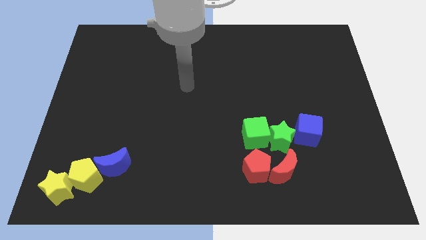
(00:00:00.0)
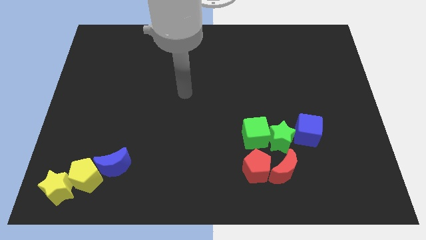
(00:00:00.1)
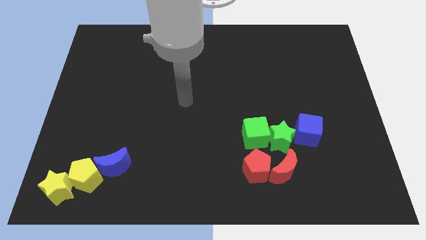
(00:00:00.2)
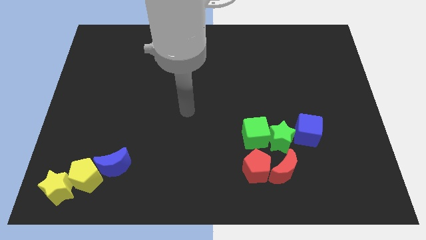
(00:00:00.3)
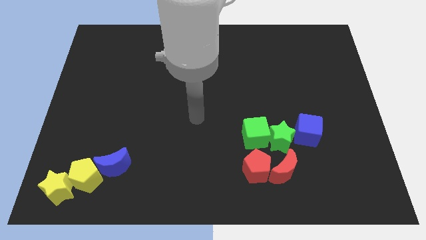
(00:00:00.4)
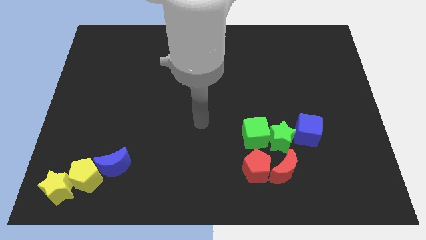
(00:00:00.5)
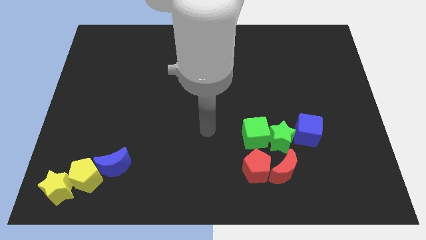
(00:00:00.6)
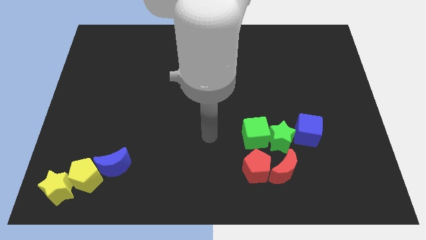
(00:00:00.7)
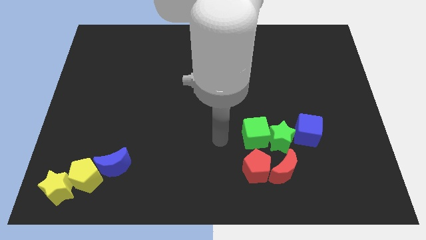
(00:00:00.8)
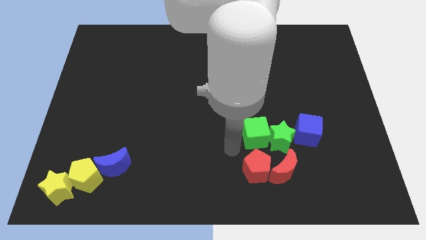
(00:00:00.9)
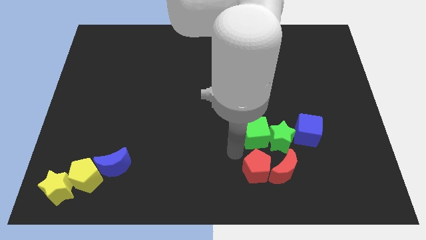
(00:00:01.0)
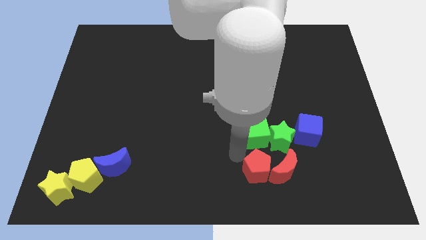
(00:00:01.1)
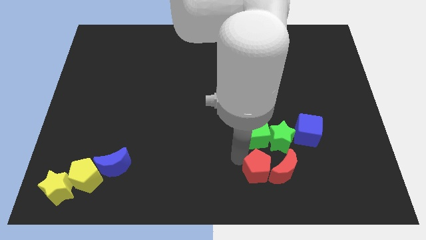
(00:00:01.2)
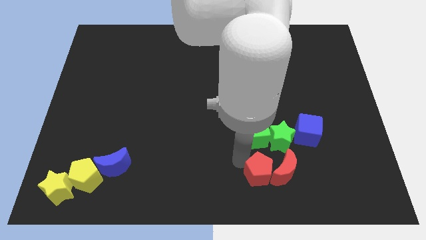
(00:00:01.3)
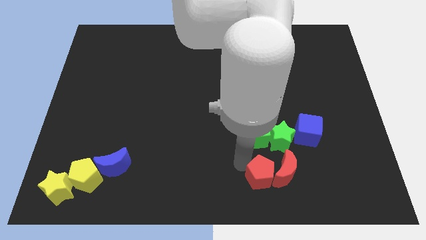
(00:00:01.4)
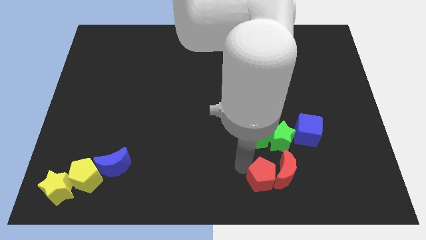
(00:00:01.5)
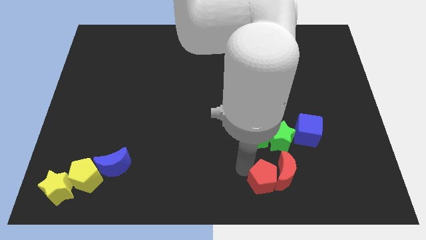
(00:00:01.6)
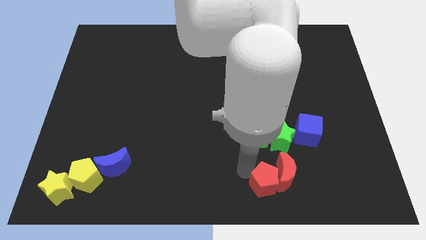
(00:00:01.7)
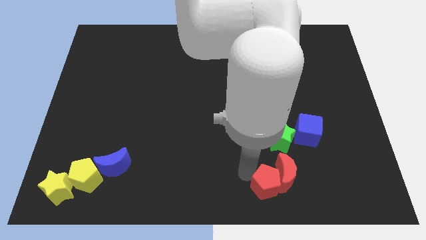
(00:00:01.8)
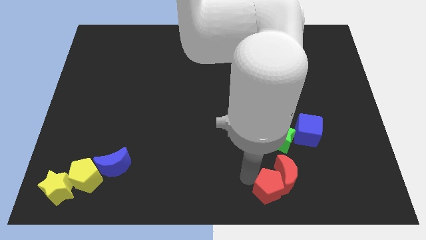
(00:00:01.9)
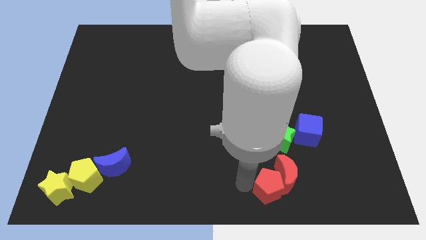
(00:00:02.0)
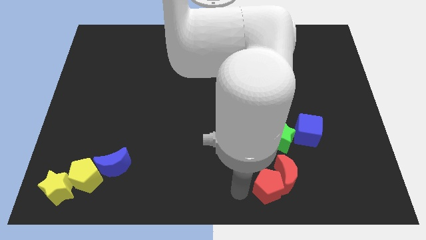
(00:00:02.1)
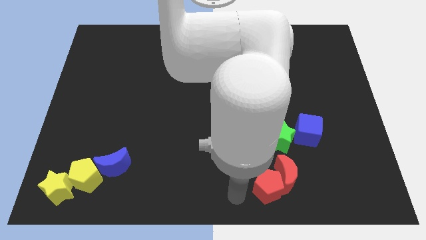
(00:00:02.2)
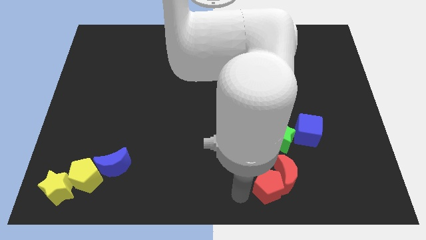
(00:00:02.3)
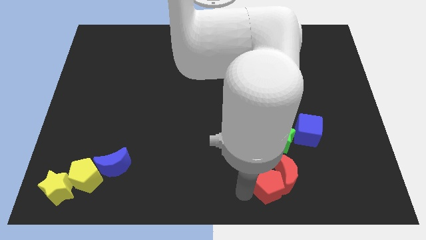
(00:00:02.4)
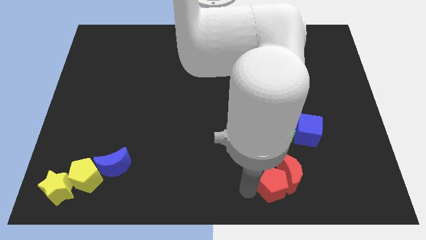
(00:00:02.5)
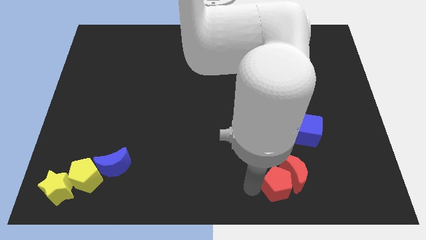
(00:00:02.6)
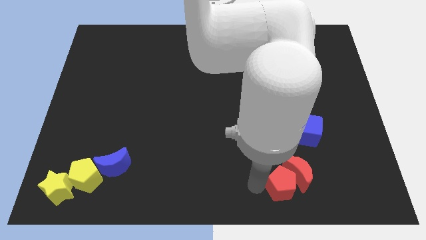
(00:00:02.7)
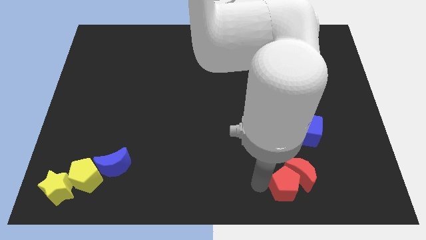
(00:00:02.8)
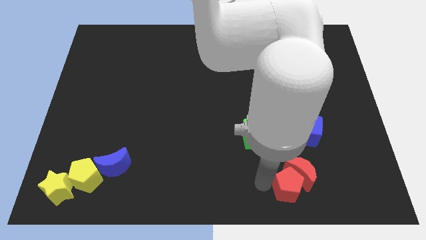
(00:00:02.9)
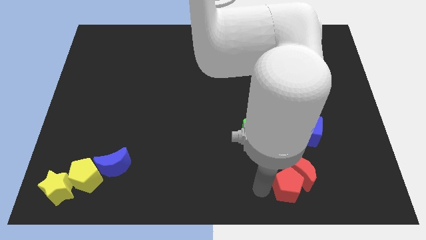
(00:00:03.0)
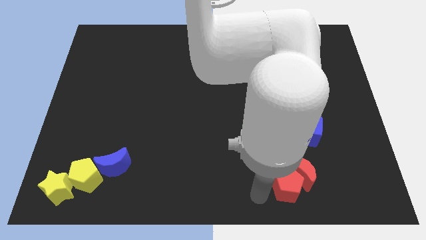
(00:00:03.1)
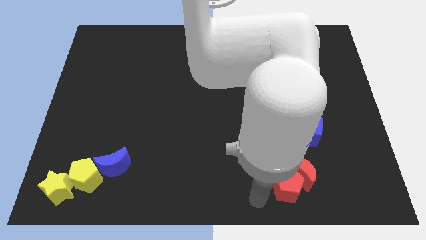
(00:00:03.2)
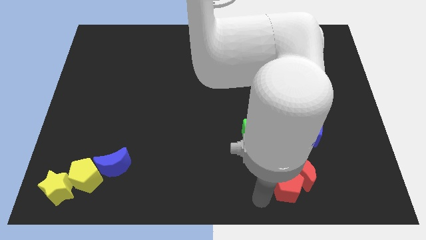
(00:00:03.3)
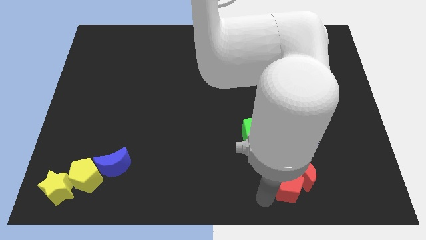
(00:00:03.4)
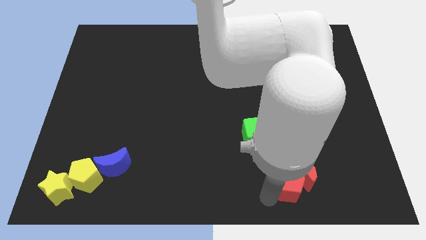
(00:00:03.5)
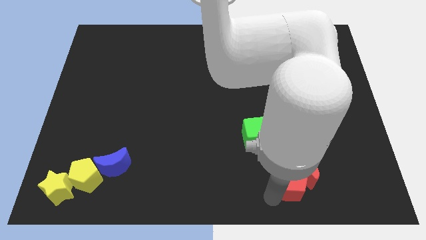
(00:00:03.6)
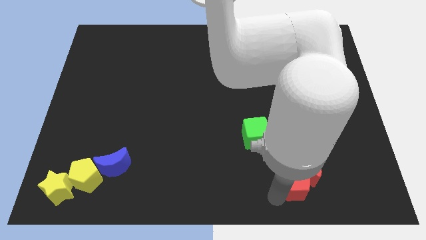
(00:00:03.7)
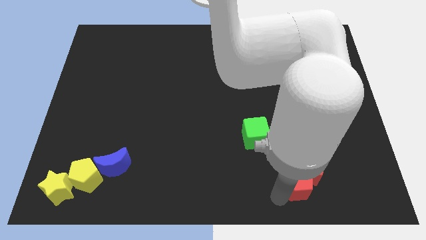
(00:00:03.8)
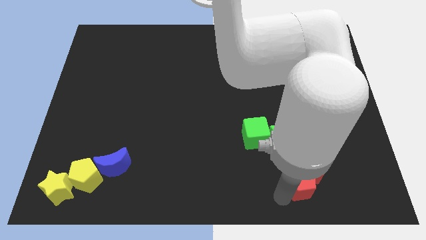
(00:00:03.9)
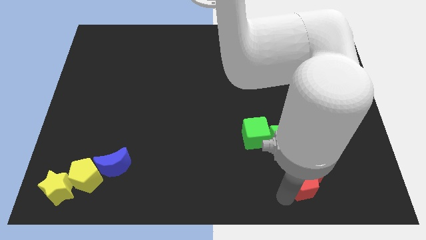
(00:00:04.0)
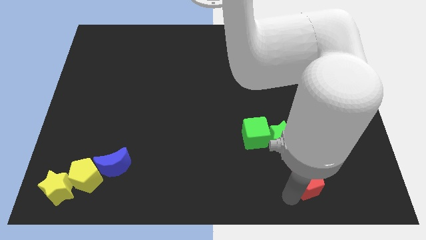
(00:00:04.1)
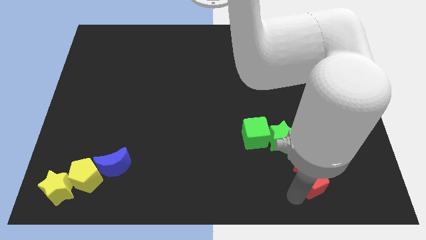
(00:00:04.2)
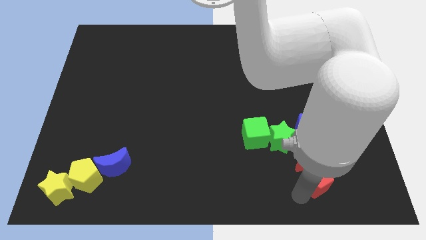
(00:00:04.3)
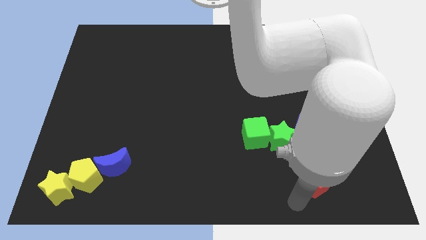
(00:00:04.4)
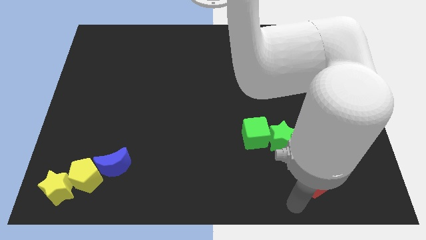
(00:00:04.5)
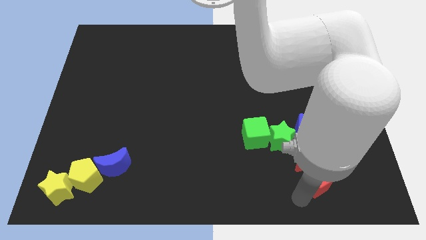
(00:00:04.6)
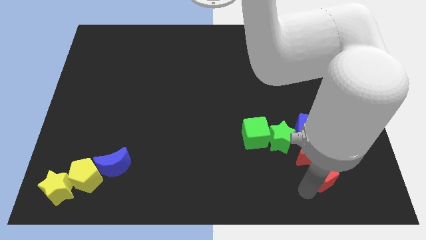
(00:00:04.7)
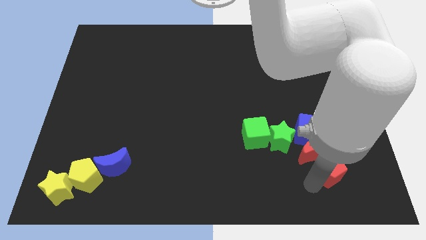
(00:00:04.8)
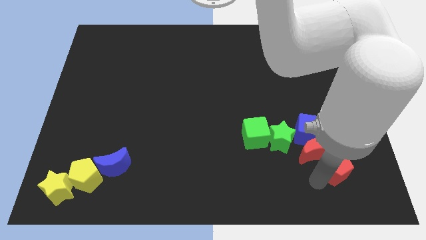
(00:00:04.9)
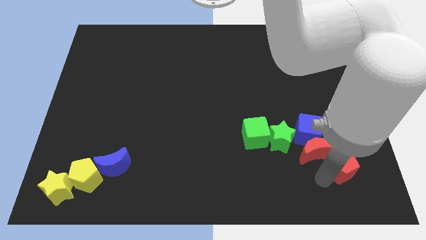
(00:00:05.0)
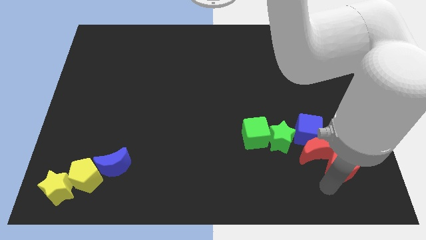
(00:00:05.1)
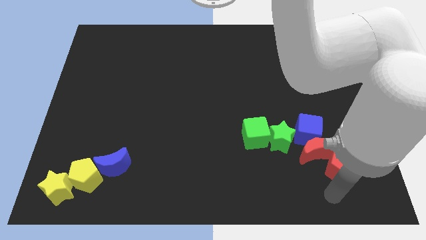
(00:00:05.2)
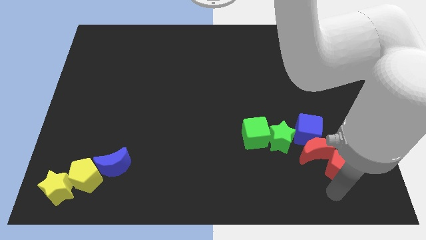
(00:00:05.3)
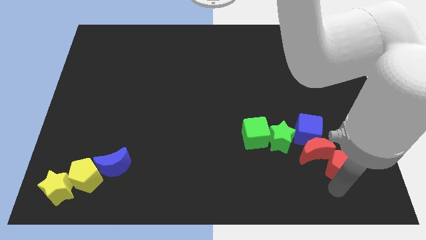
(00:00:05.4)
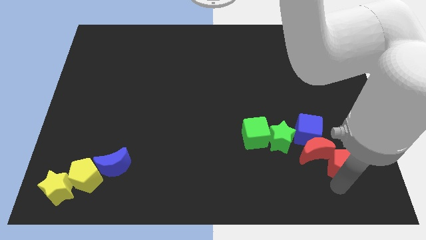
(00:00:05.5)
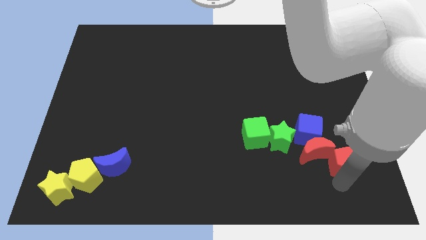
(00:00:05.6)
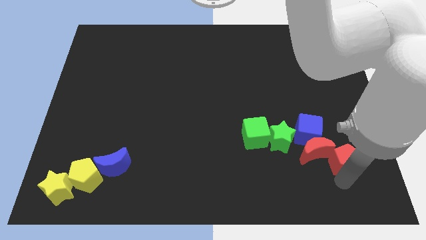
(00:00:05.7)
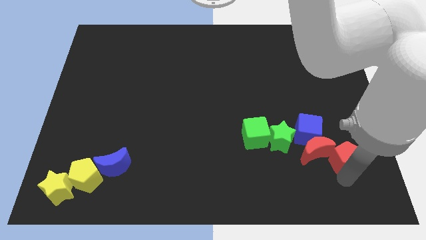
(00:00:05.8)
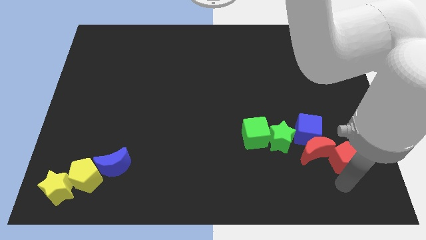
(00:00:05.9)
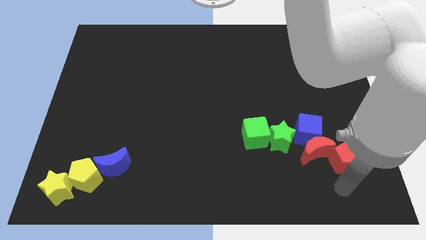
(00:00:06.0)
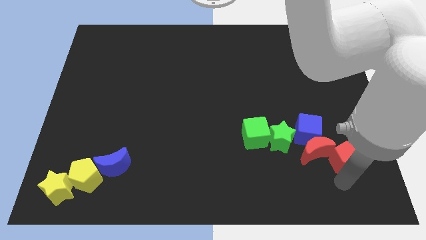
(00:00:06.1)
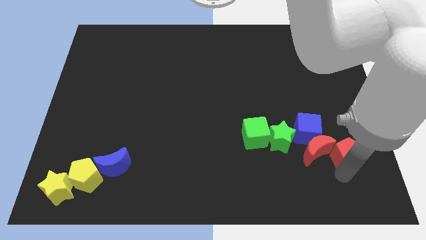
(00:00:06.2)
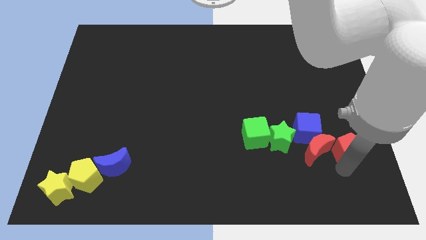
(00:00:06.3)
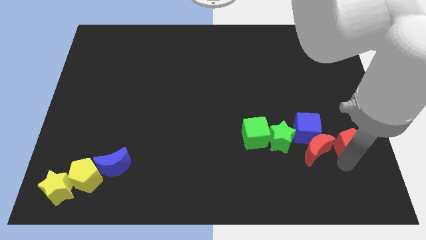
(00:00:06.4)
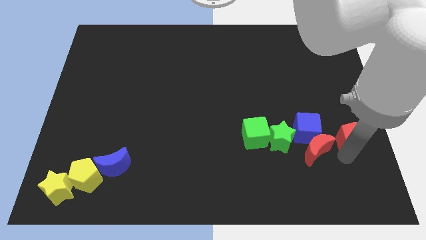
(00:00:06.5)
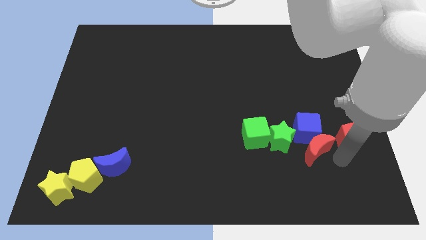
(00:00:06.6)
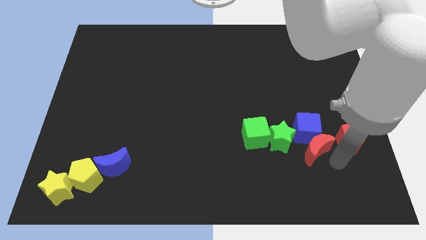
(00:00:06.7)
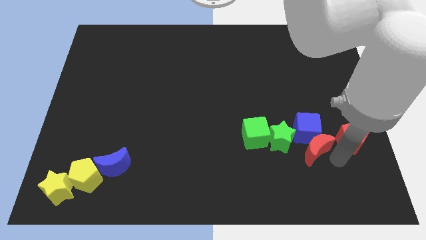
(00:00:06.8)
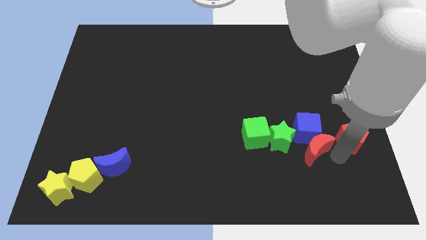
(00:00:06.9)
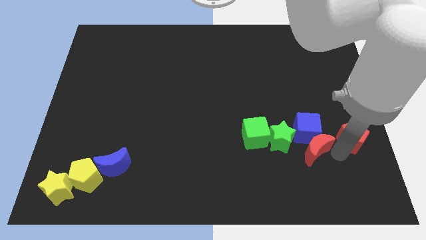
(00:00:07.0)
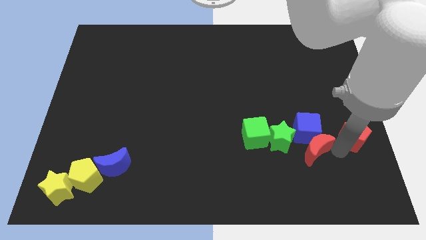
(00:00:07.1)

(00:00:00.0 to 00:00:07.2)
slide the red pentagon to the right side
